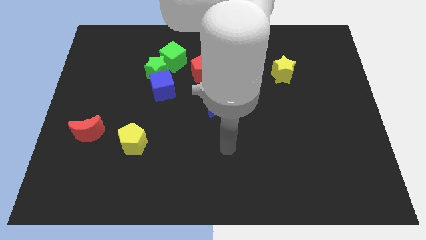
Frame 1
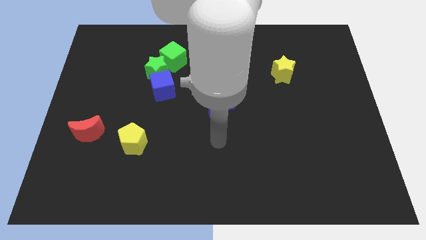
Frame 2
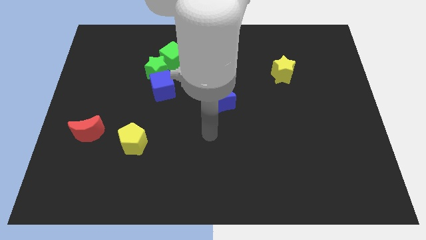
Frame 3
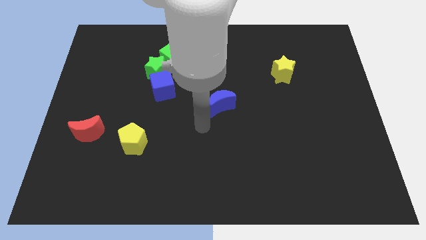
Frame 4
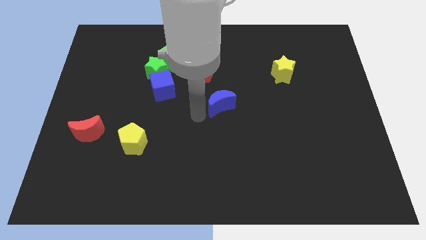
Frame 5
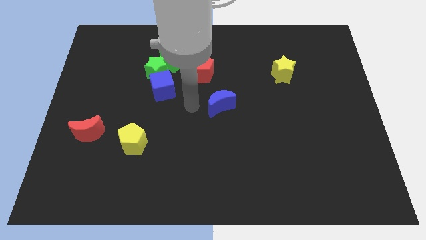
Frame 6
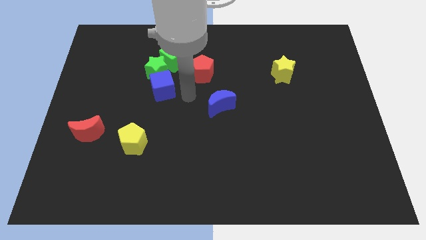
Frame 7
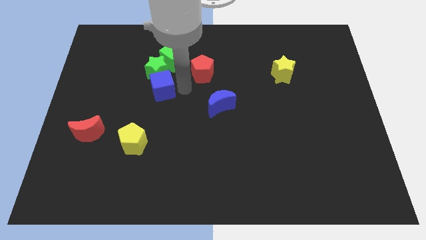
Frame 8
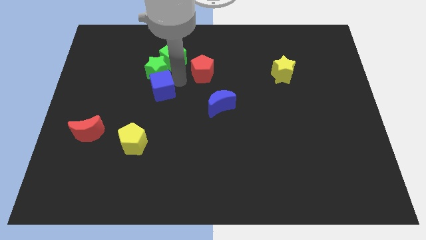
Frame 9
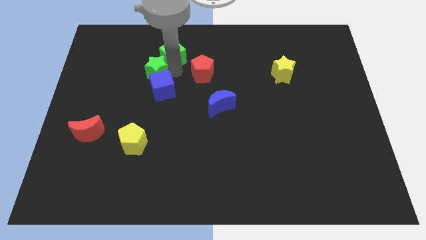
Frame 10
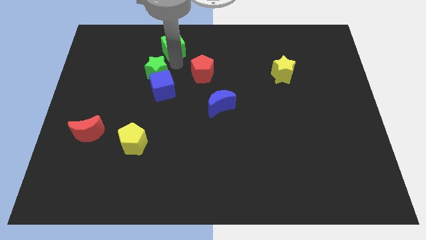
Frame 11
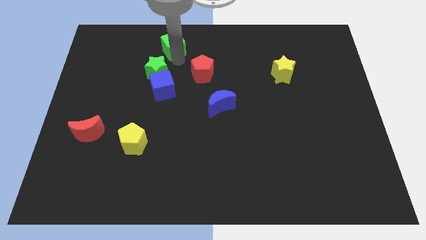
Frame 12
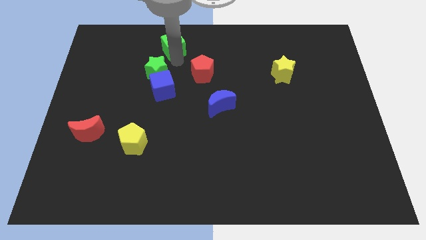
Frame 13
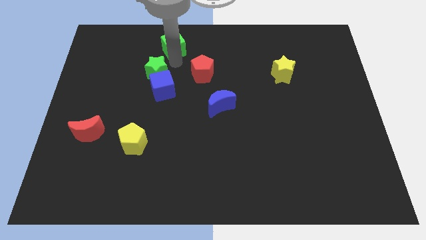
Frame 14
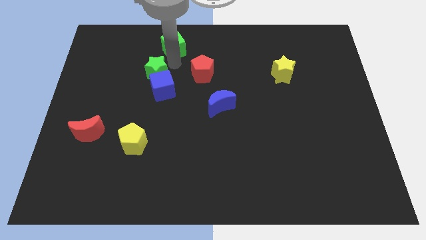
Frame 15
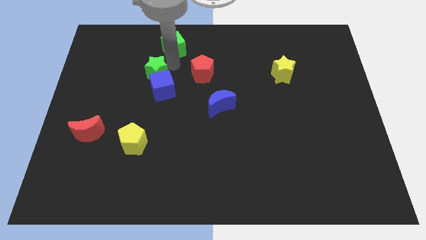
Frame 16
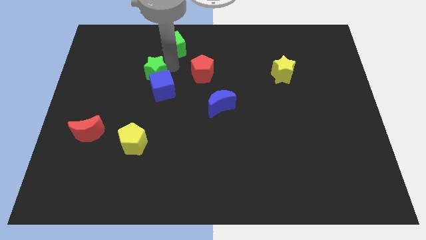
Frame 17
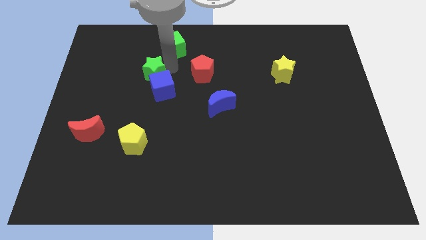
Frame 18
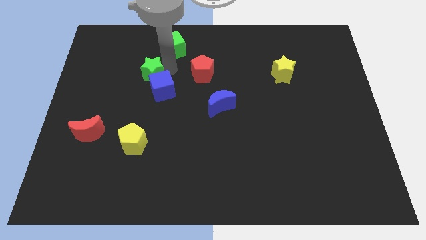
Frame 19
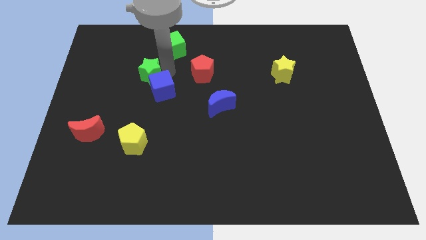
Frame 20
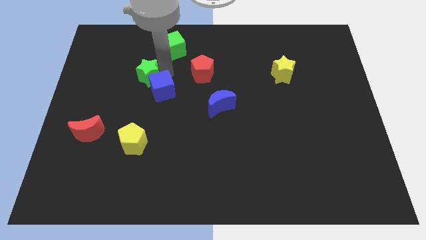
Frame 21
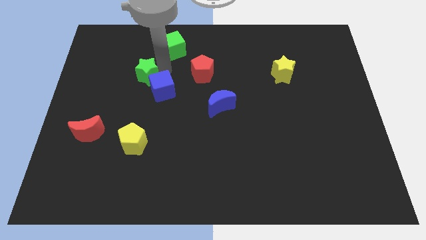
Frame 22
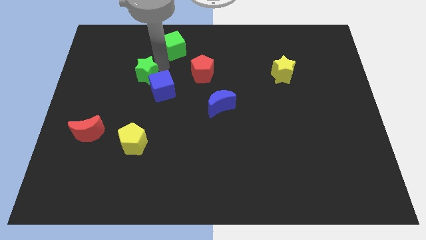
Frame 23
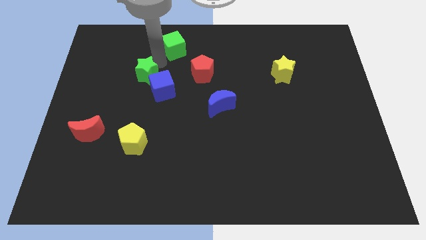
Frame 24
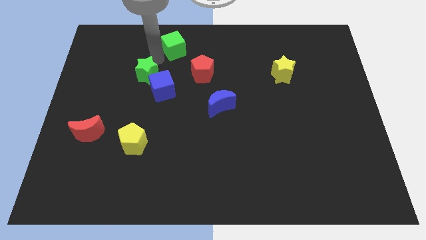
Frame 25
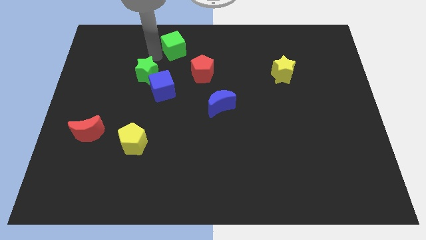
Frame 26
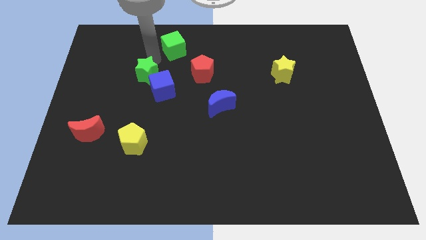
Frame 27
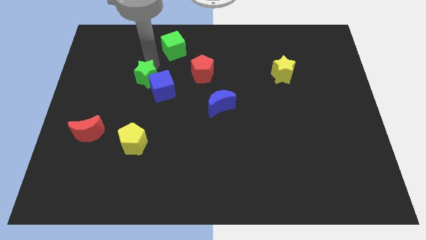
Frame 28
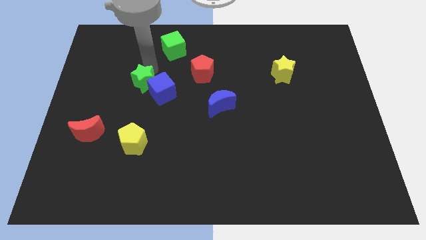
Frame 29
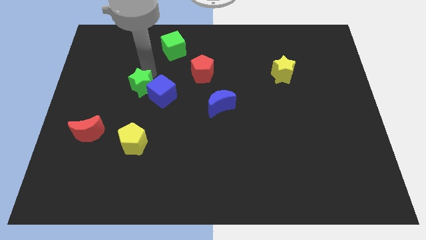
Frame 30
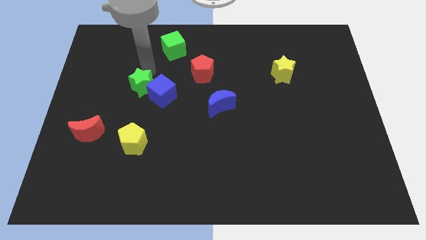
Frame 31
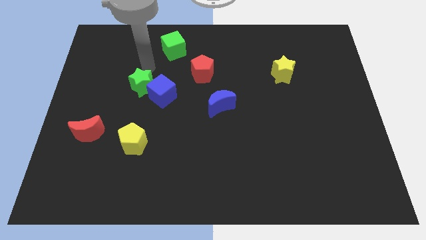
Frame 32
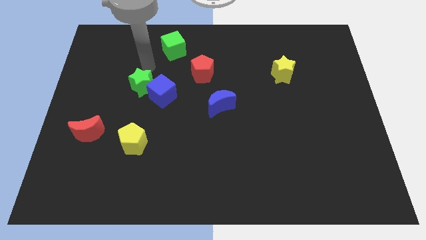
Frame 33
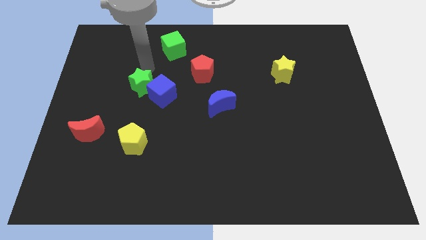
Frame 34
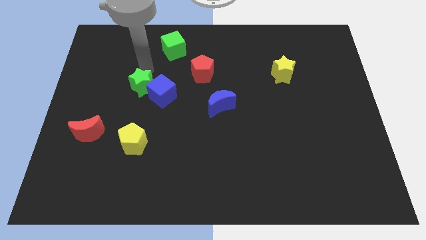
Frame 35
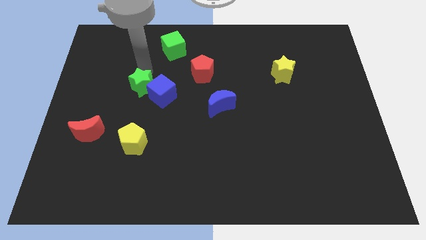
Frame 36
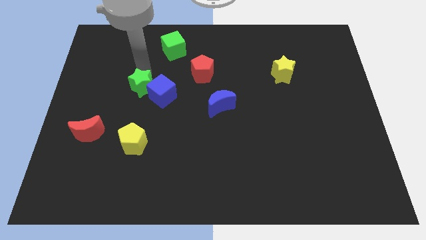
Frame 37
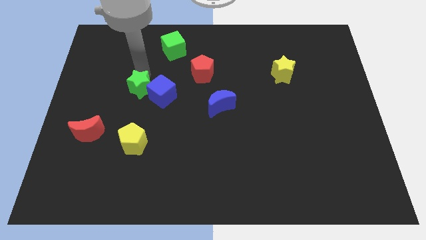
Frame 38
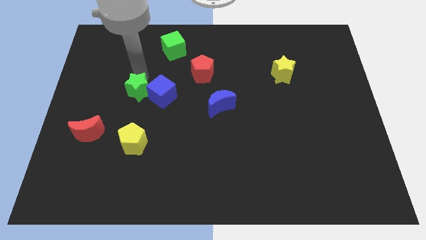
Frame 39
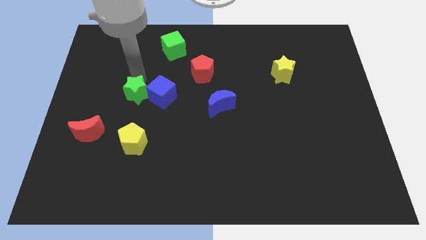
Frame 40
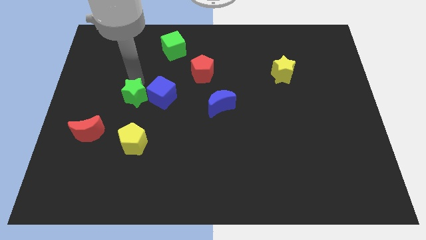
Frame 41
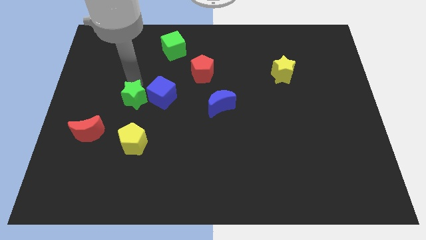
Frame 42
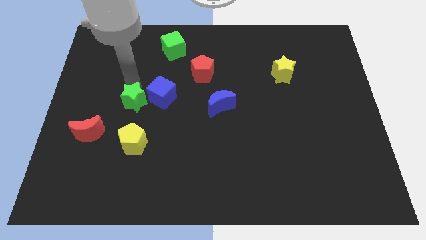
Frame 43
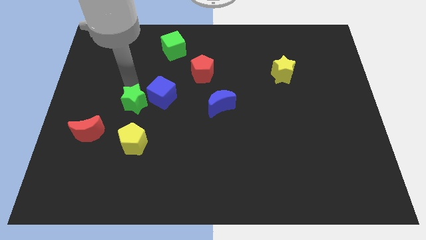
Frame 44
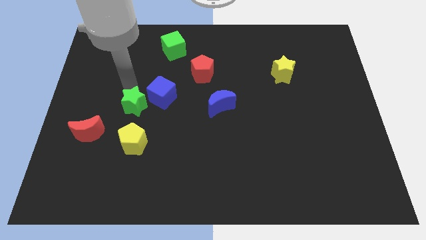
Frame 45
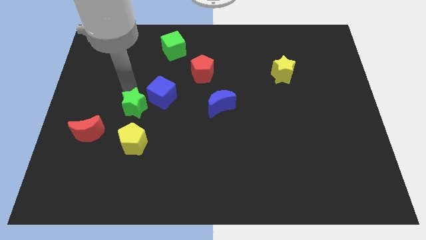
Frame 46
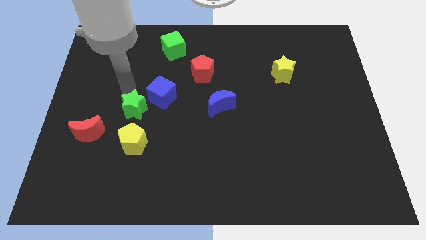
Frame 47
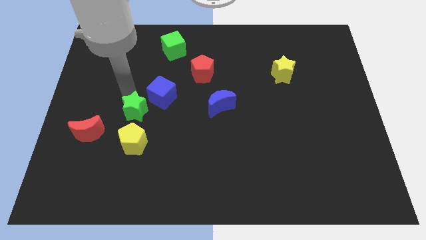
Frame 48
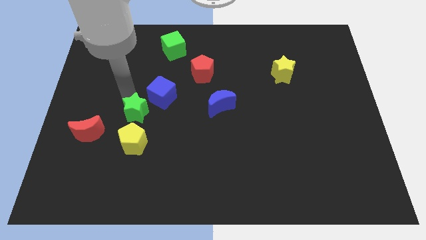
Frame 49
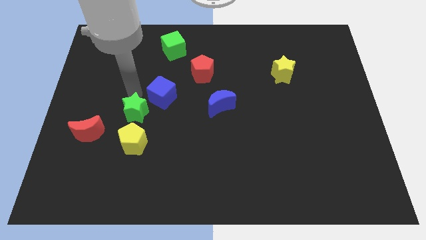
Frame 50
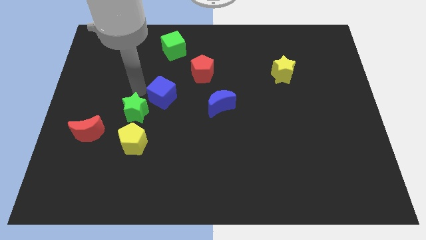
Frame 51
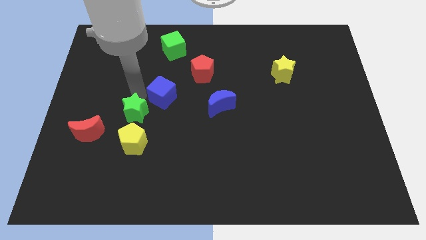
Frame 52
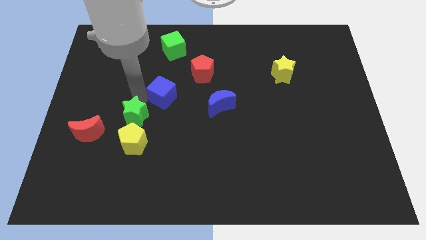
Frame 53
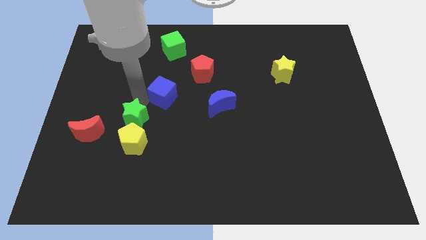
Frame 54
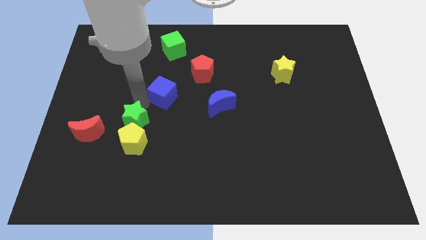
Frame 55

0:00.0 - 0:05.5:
push the green star next to the yellow pentagon

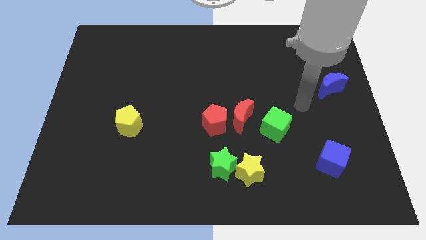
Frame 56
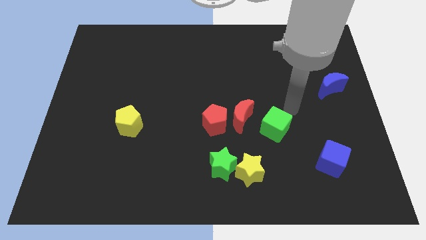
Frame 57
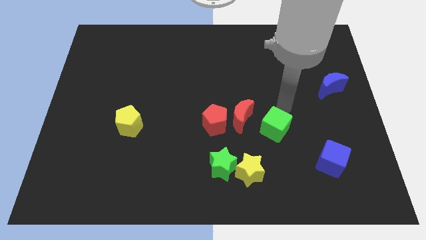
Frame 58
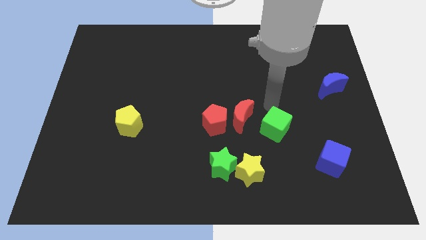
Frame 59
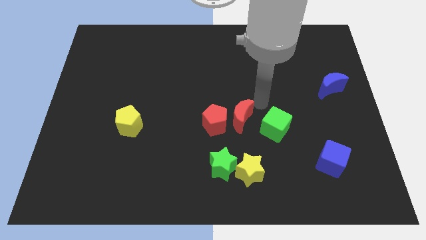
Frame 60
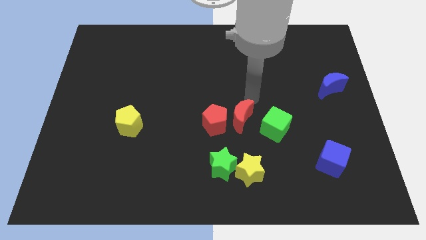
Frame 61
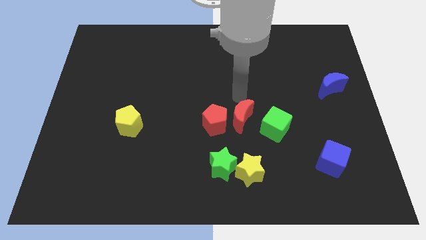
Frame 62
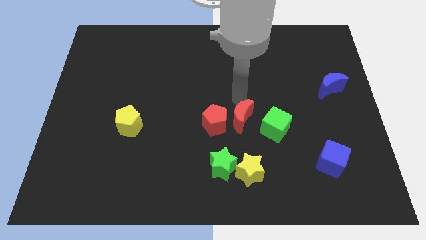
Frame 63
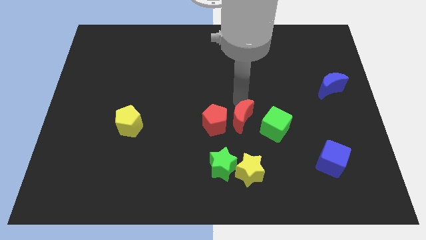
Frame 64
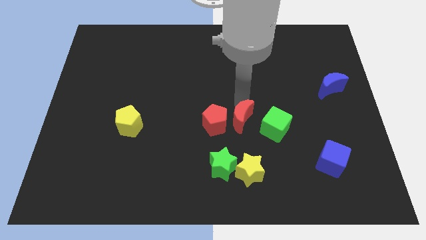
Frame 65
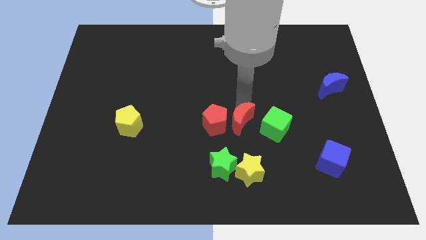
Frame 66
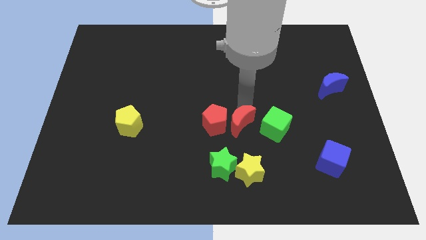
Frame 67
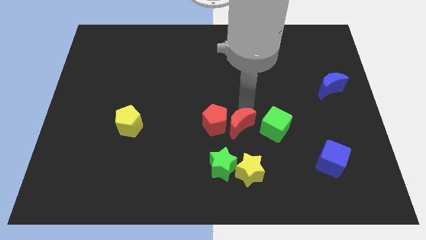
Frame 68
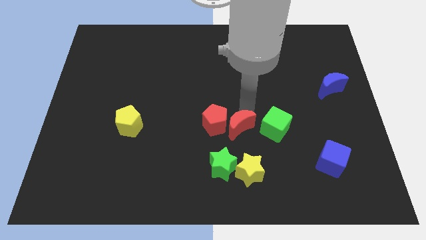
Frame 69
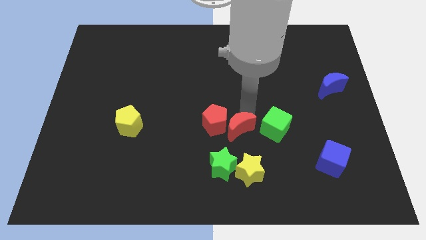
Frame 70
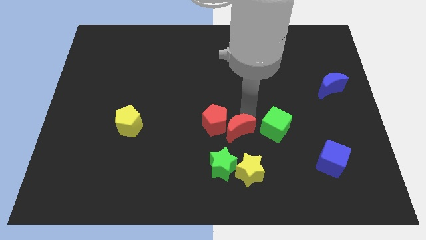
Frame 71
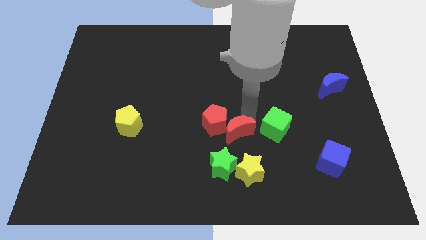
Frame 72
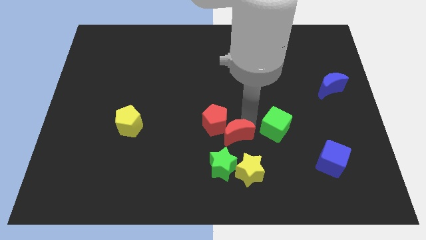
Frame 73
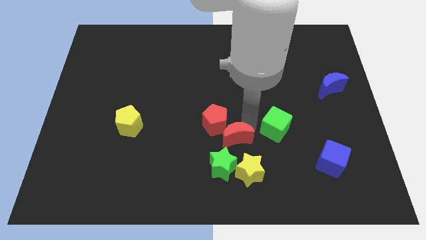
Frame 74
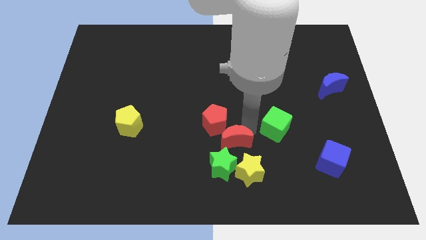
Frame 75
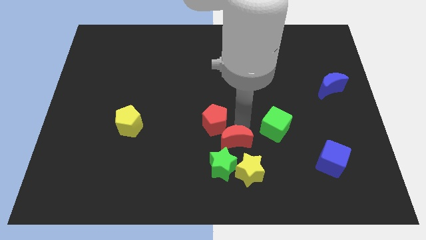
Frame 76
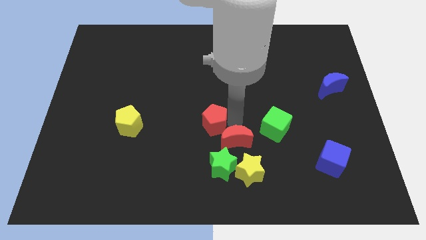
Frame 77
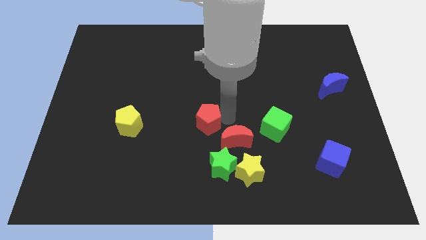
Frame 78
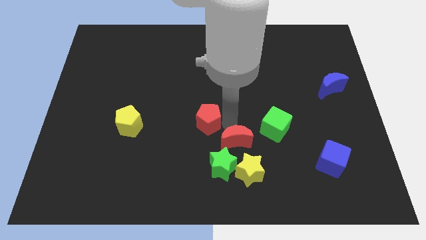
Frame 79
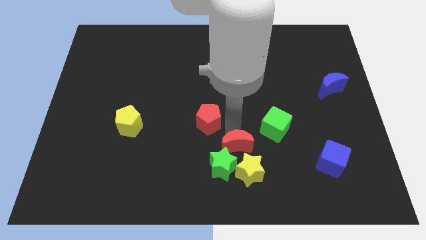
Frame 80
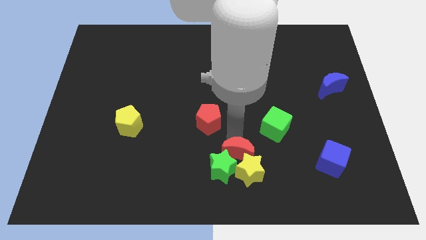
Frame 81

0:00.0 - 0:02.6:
put the red moon to the yellow star
